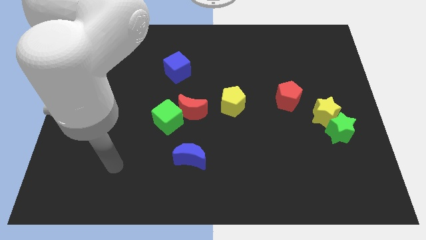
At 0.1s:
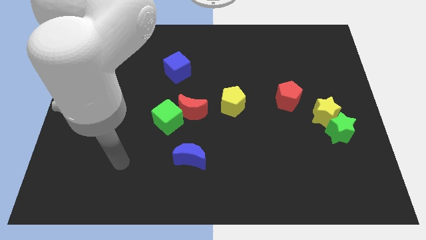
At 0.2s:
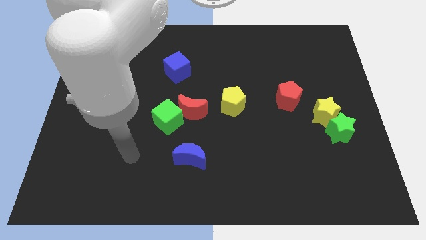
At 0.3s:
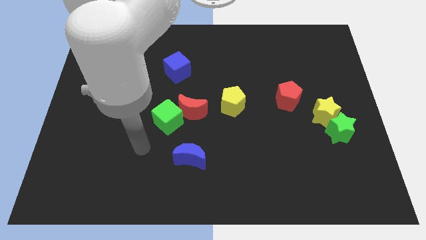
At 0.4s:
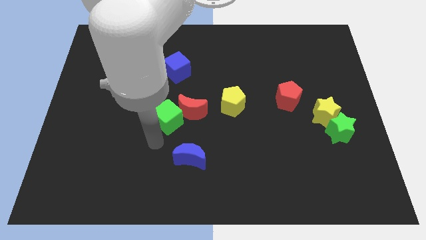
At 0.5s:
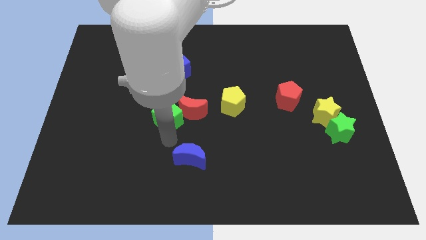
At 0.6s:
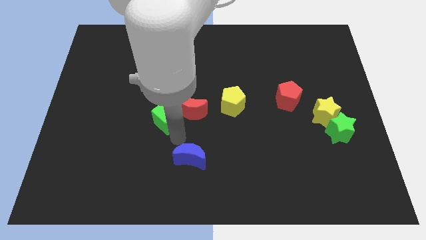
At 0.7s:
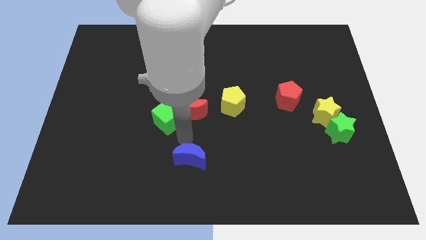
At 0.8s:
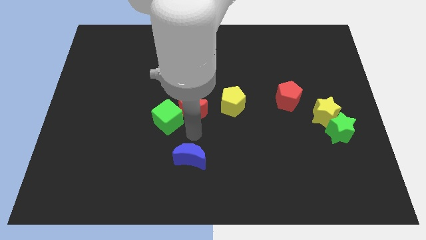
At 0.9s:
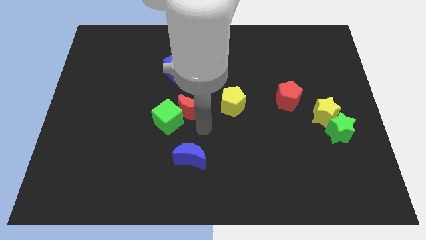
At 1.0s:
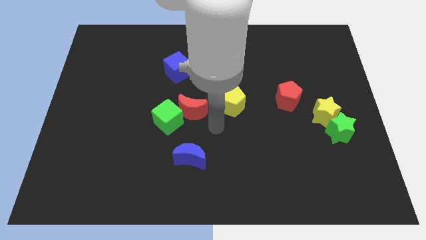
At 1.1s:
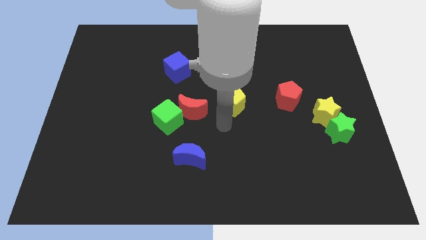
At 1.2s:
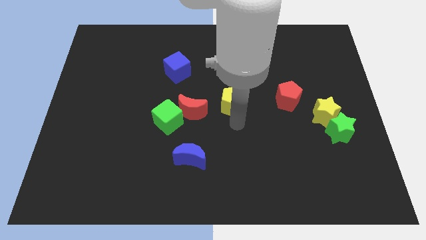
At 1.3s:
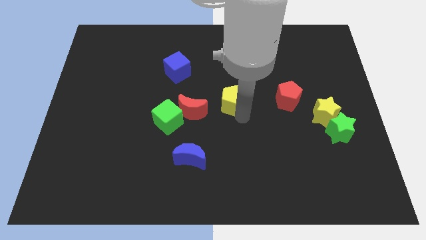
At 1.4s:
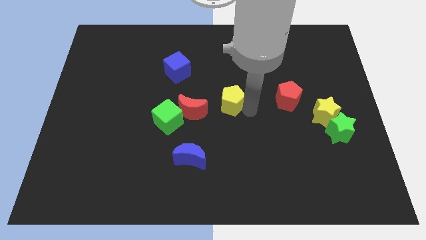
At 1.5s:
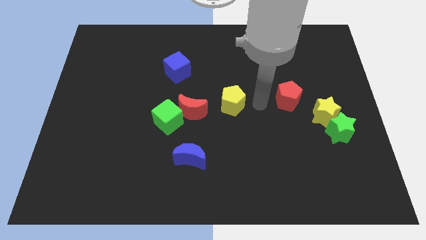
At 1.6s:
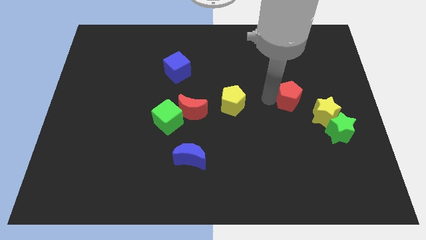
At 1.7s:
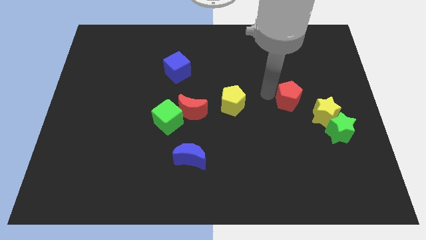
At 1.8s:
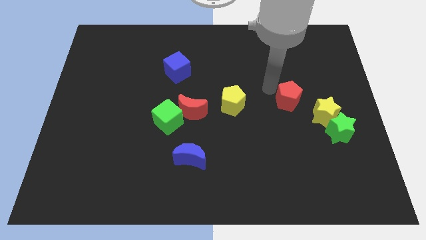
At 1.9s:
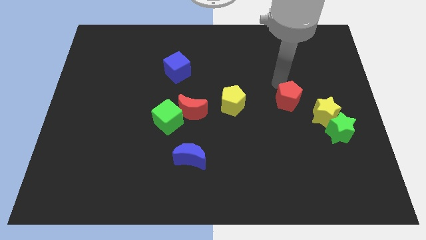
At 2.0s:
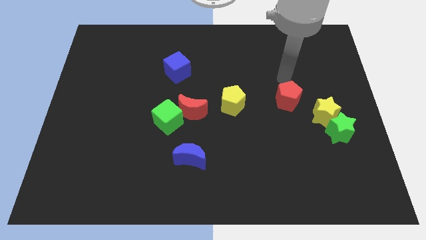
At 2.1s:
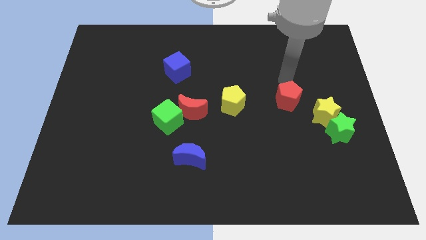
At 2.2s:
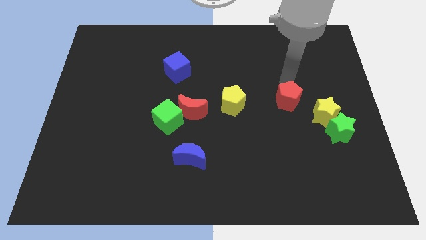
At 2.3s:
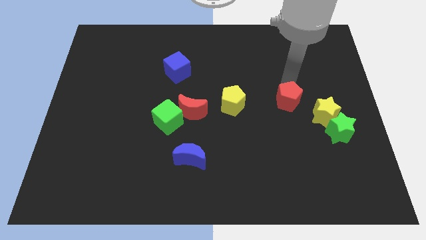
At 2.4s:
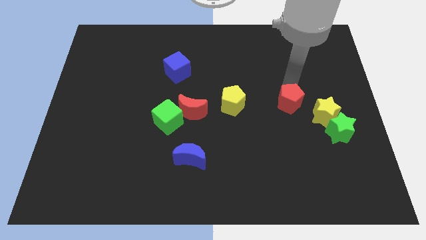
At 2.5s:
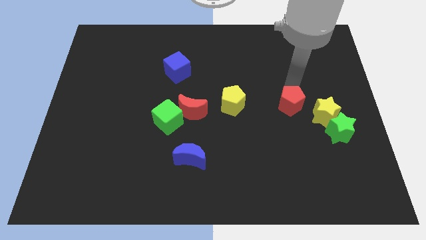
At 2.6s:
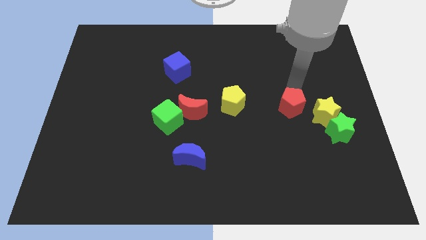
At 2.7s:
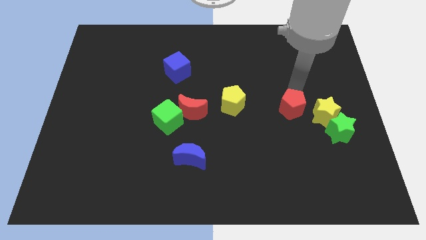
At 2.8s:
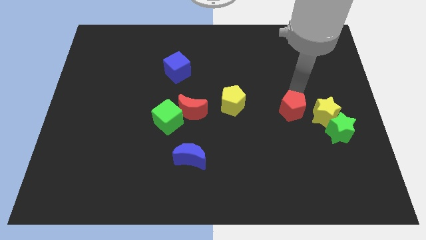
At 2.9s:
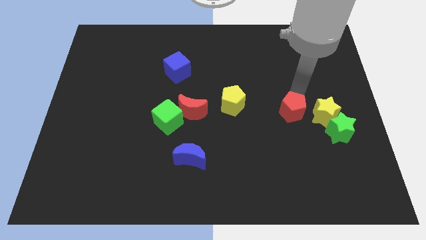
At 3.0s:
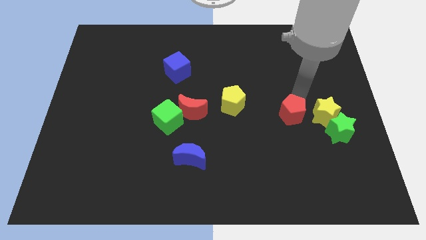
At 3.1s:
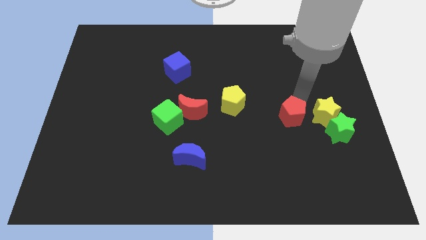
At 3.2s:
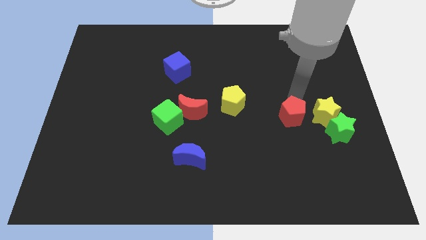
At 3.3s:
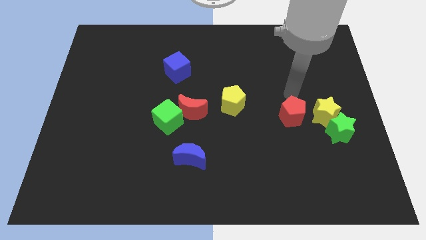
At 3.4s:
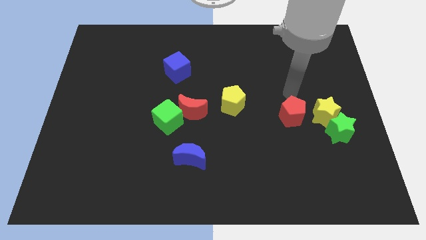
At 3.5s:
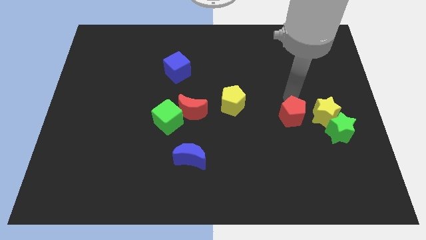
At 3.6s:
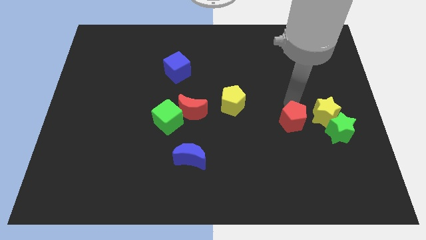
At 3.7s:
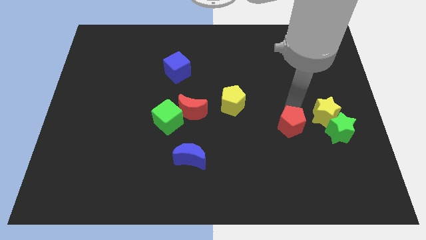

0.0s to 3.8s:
push the red pentagon a little bit downwards

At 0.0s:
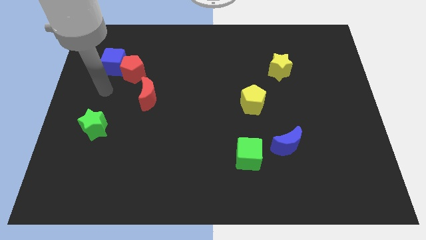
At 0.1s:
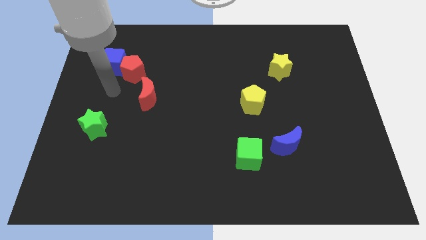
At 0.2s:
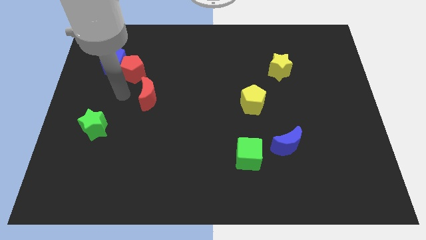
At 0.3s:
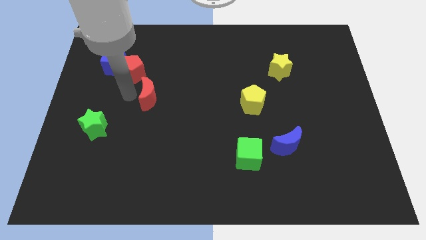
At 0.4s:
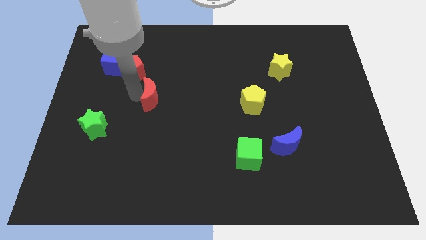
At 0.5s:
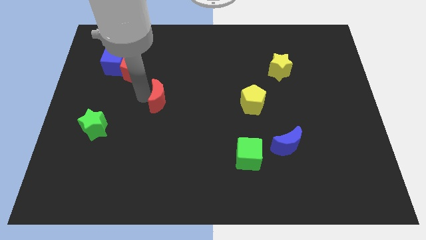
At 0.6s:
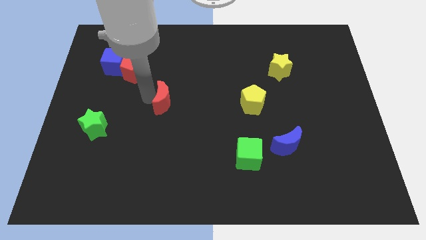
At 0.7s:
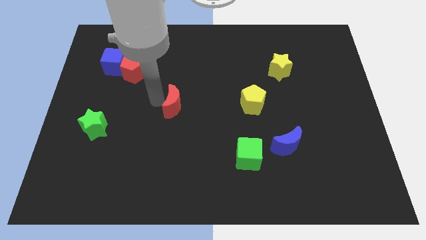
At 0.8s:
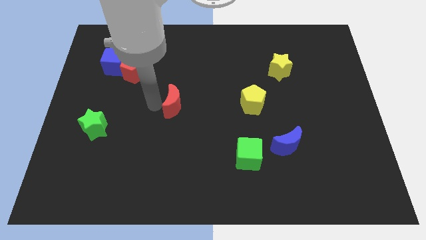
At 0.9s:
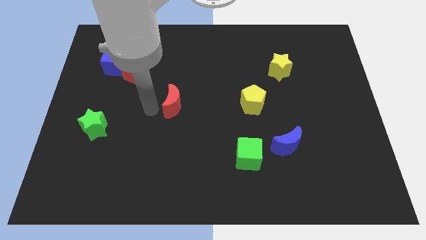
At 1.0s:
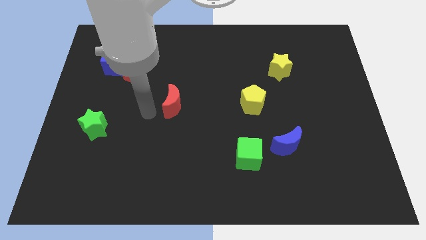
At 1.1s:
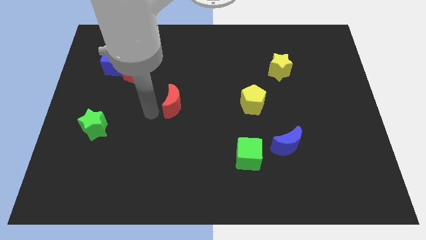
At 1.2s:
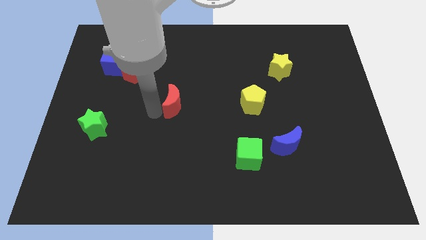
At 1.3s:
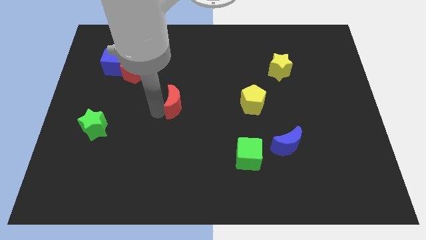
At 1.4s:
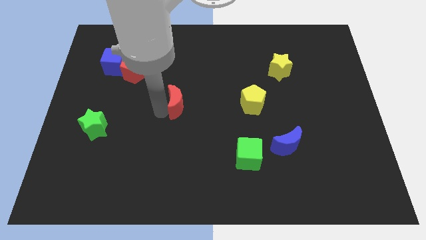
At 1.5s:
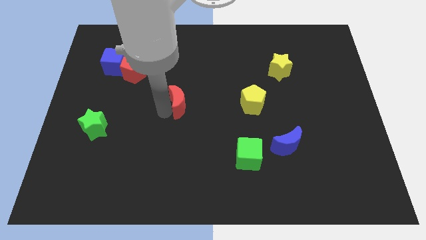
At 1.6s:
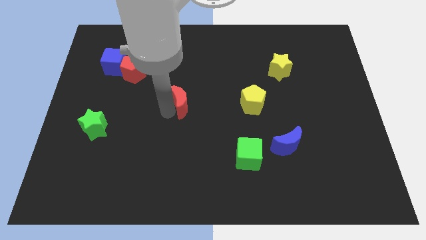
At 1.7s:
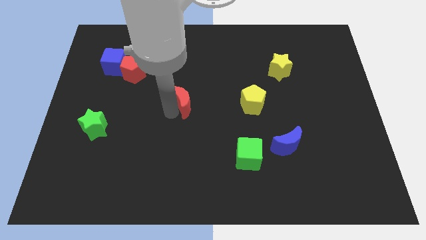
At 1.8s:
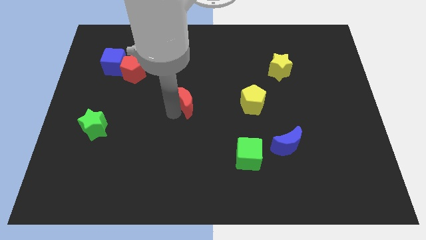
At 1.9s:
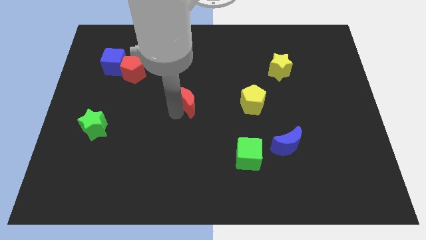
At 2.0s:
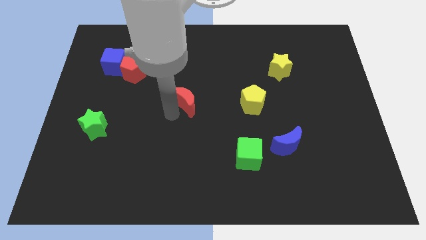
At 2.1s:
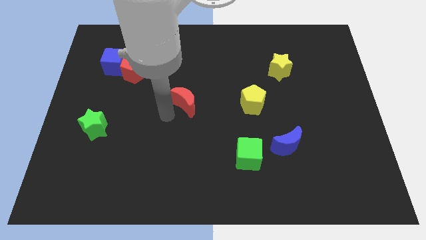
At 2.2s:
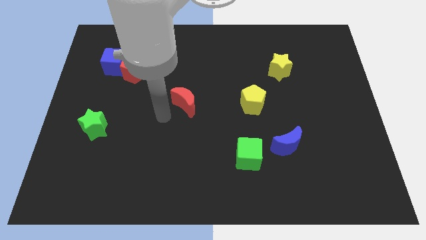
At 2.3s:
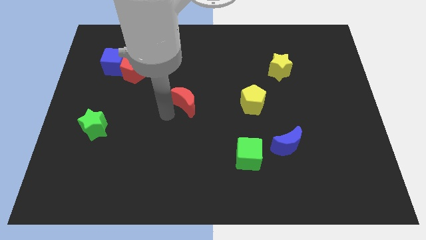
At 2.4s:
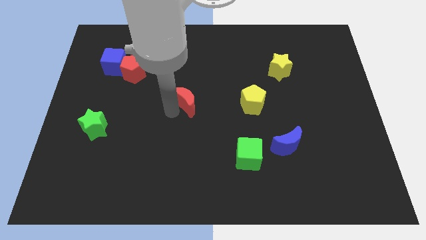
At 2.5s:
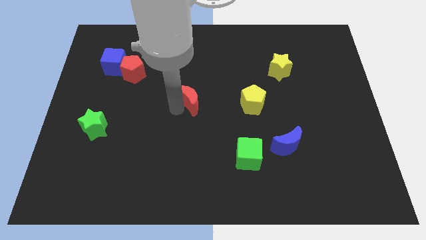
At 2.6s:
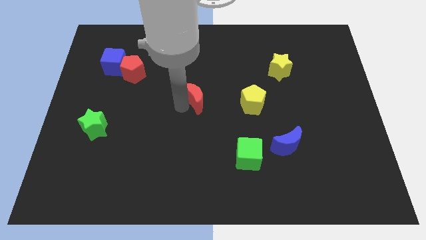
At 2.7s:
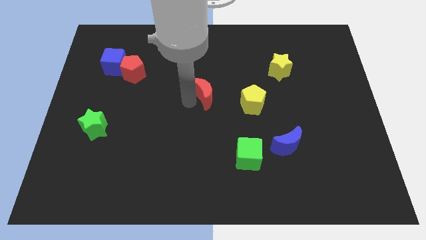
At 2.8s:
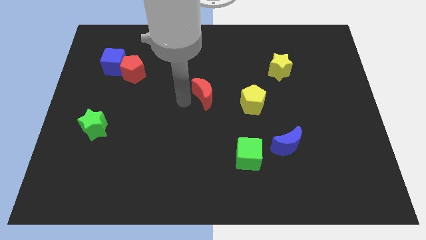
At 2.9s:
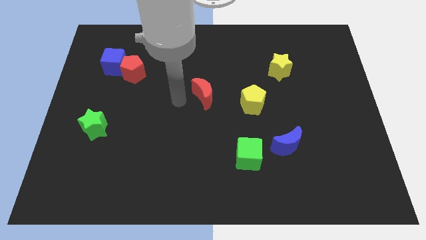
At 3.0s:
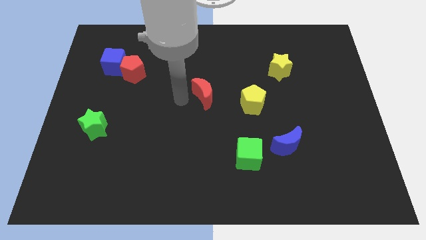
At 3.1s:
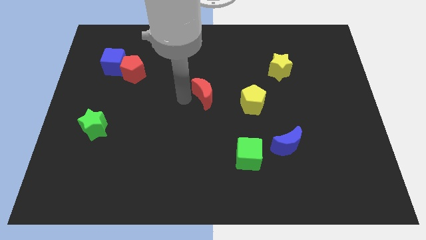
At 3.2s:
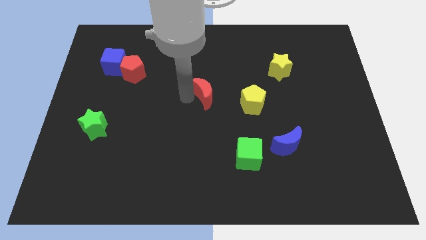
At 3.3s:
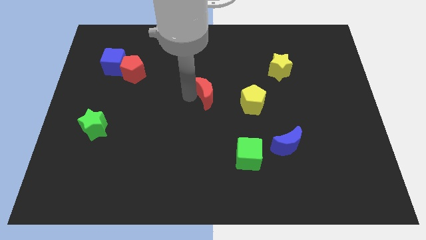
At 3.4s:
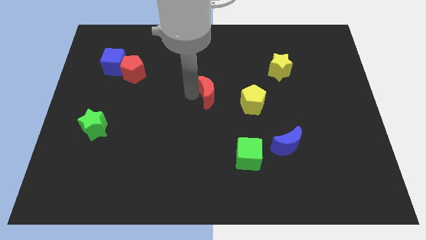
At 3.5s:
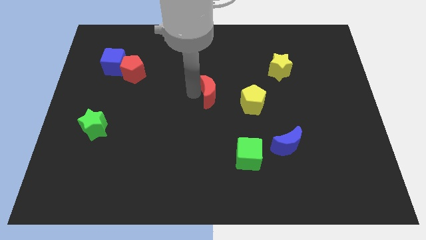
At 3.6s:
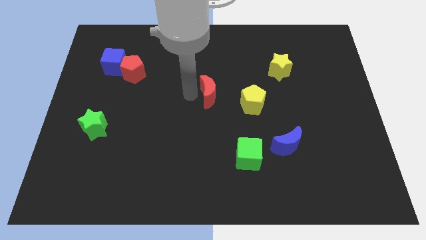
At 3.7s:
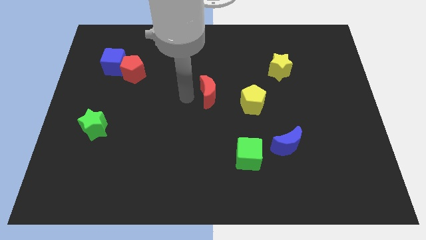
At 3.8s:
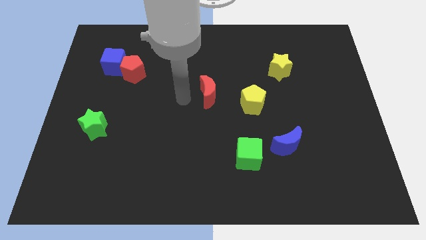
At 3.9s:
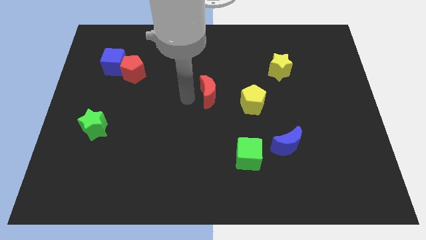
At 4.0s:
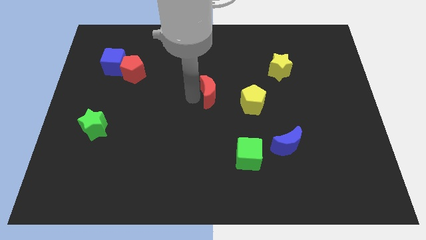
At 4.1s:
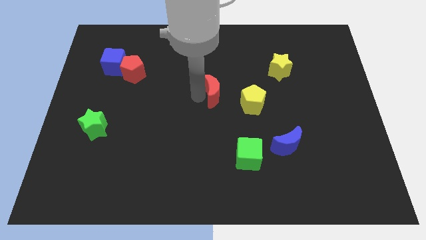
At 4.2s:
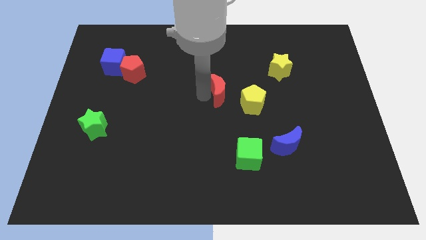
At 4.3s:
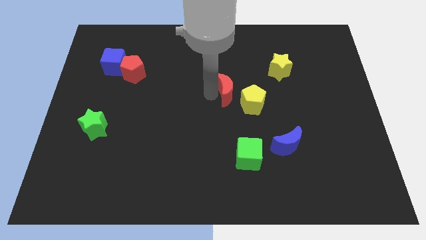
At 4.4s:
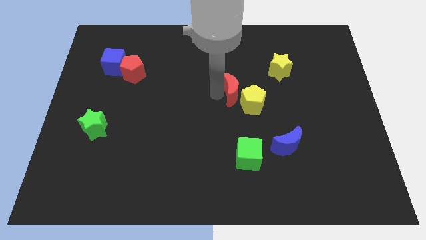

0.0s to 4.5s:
move the red moon to the right
